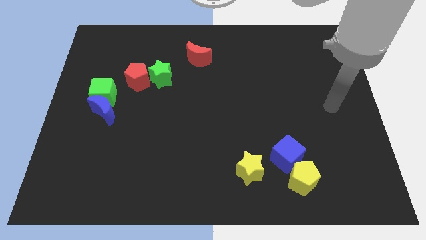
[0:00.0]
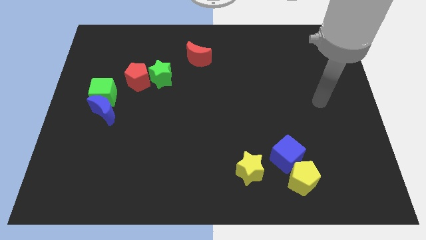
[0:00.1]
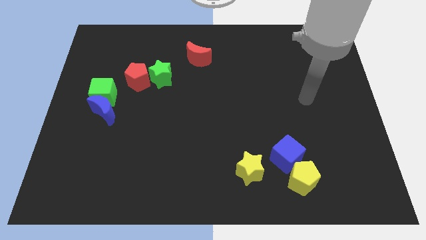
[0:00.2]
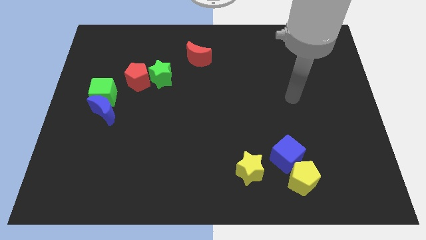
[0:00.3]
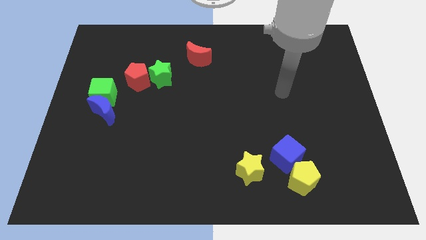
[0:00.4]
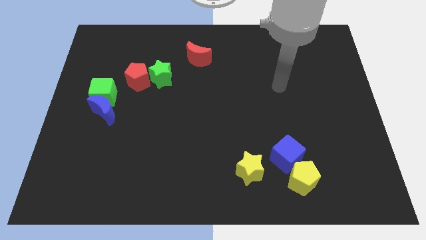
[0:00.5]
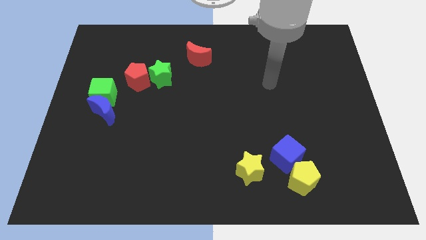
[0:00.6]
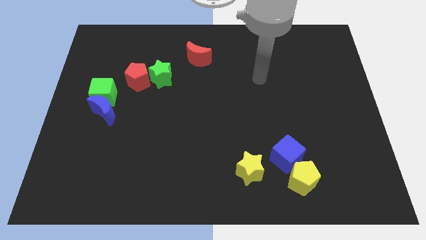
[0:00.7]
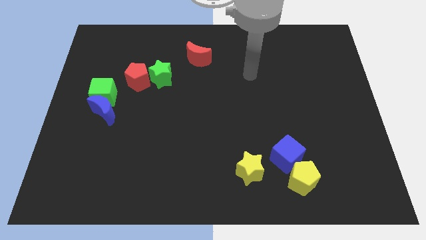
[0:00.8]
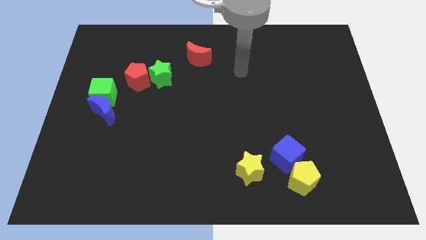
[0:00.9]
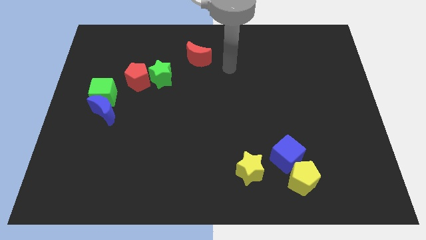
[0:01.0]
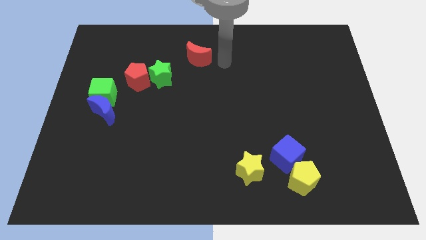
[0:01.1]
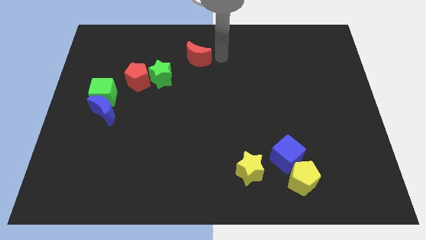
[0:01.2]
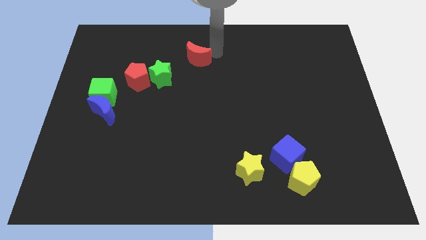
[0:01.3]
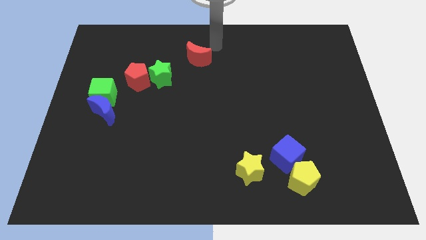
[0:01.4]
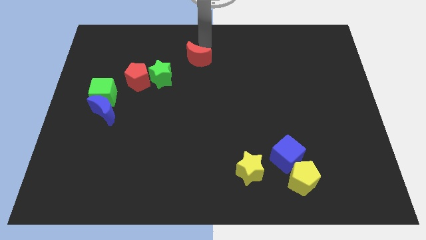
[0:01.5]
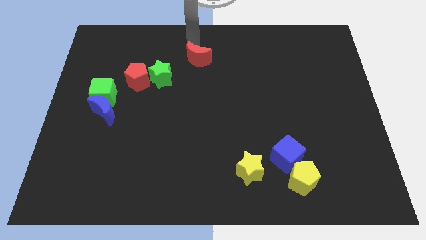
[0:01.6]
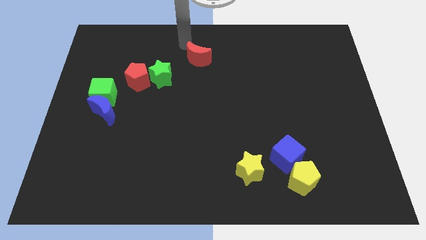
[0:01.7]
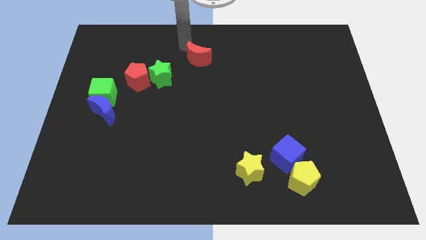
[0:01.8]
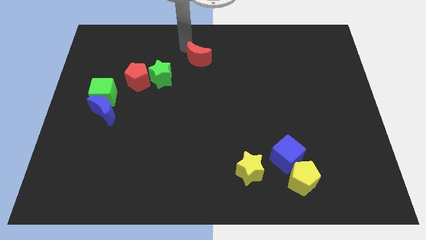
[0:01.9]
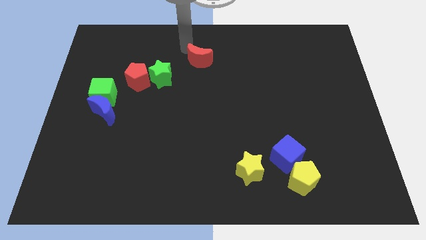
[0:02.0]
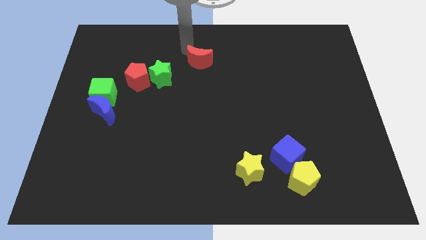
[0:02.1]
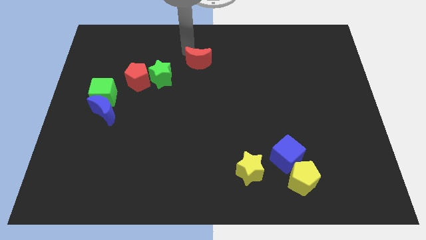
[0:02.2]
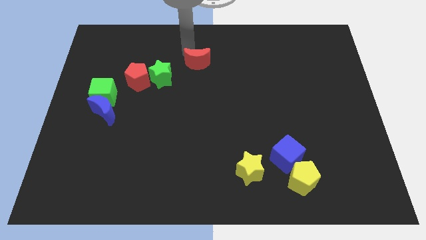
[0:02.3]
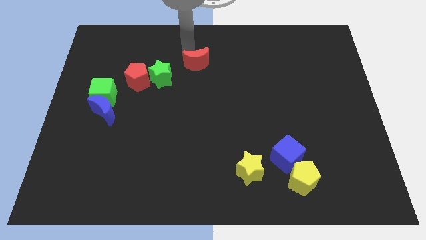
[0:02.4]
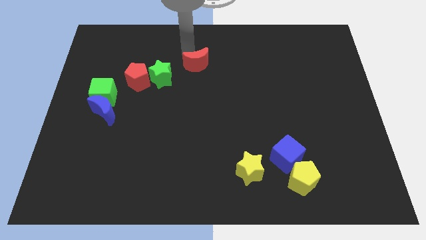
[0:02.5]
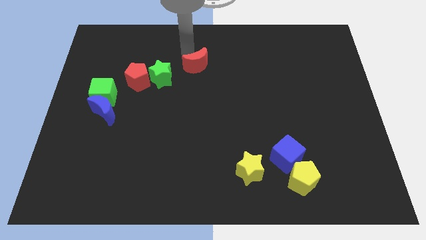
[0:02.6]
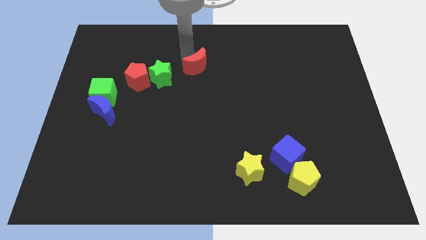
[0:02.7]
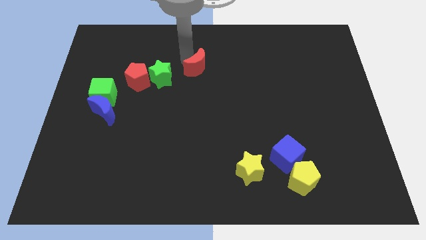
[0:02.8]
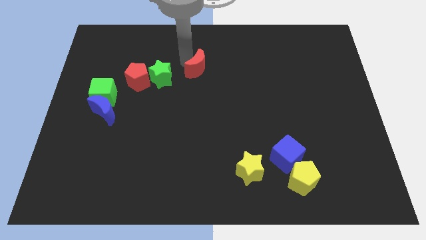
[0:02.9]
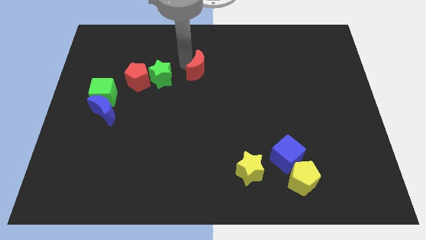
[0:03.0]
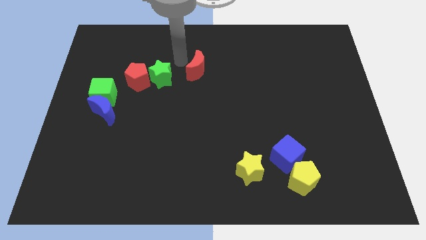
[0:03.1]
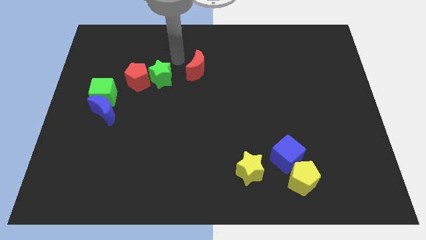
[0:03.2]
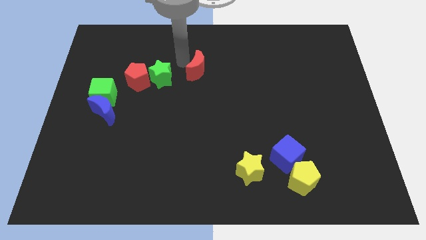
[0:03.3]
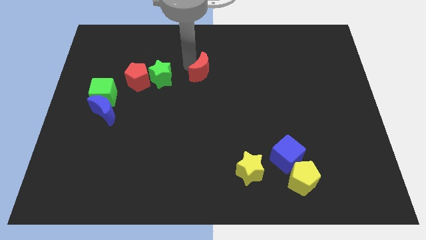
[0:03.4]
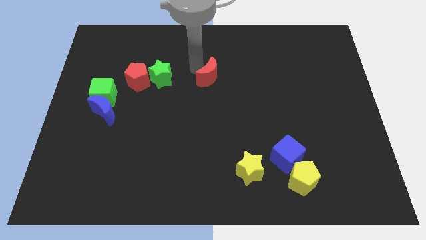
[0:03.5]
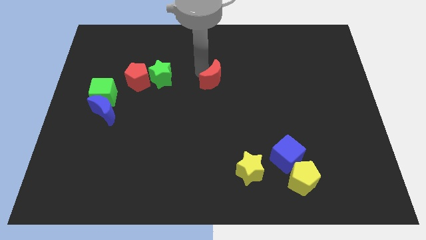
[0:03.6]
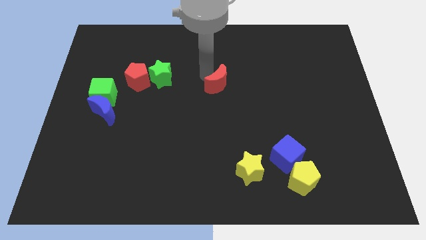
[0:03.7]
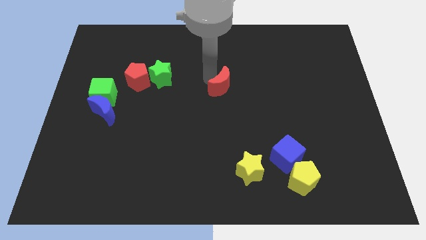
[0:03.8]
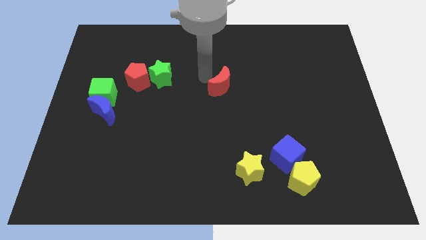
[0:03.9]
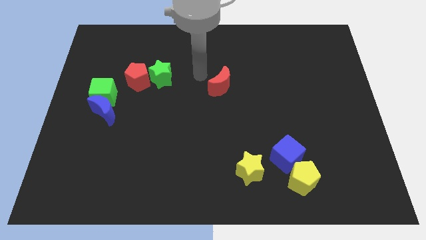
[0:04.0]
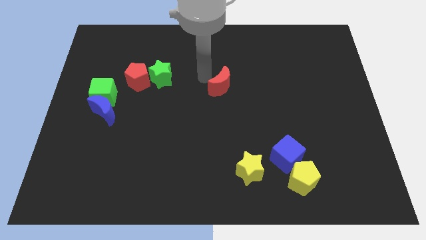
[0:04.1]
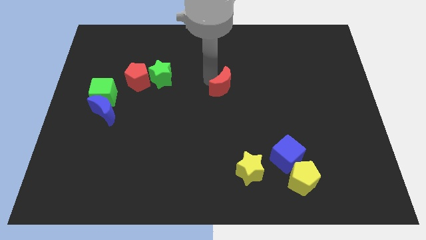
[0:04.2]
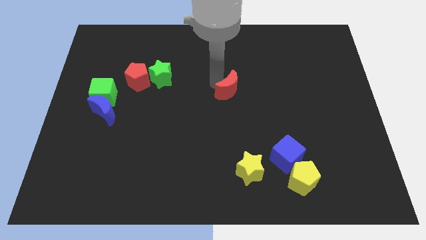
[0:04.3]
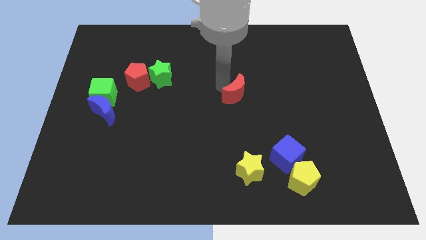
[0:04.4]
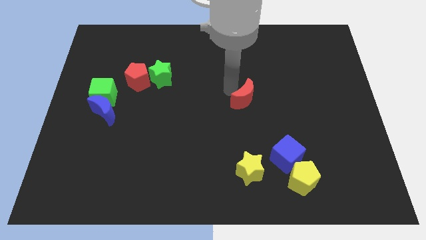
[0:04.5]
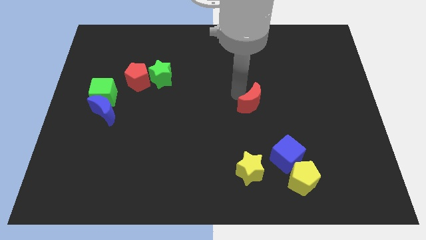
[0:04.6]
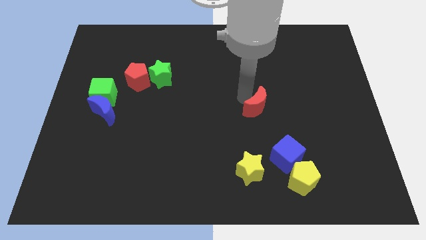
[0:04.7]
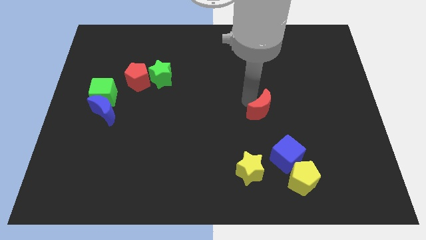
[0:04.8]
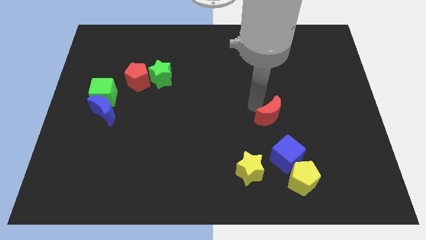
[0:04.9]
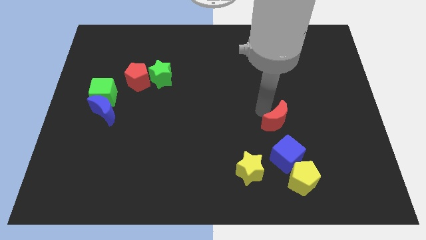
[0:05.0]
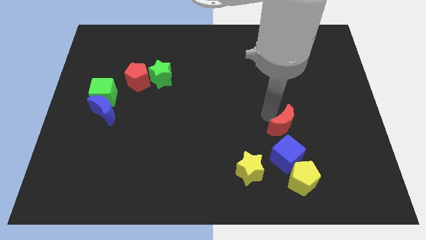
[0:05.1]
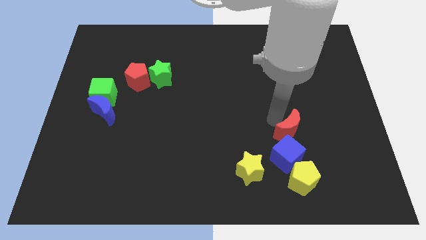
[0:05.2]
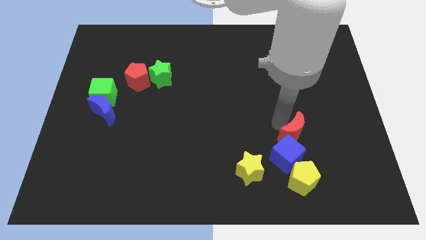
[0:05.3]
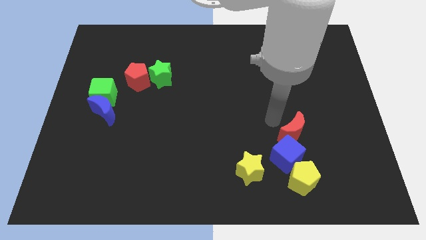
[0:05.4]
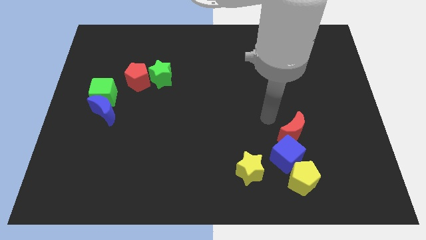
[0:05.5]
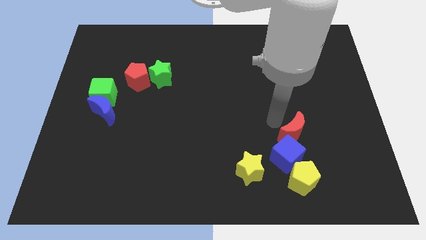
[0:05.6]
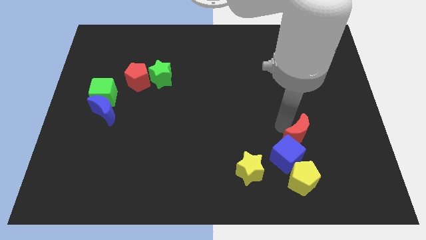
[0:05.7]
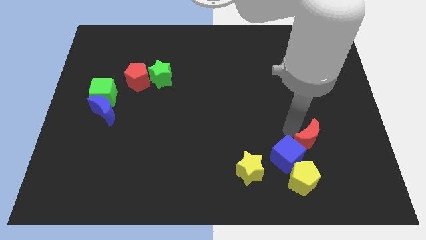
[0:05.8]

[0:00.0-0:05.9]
put the red moon just right of the blue cube
